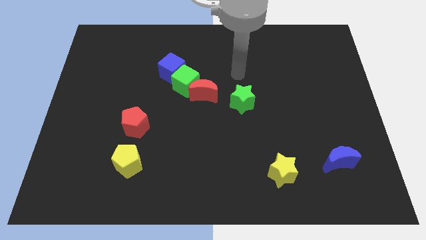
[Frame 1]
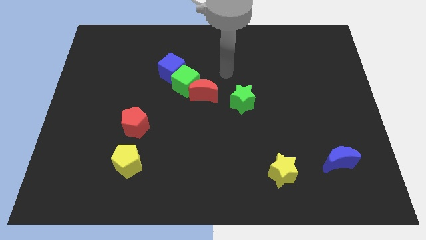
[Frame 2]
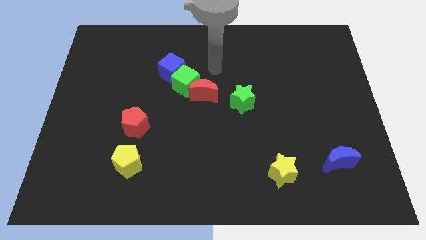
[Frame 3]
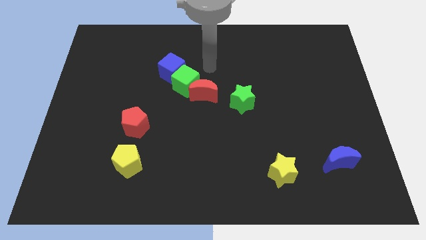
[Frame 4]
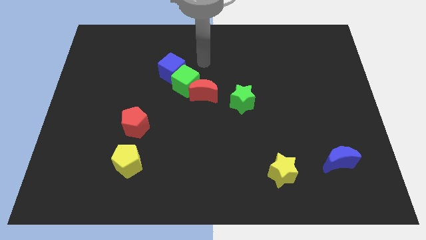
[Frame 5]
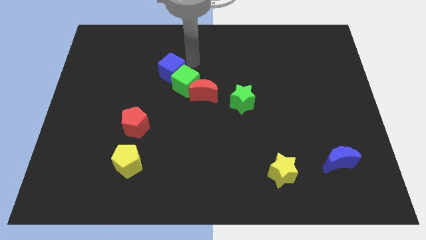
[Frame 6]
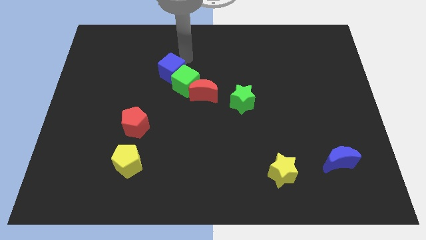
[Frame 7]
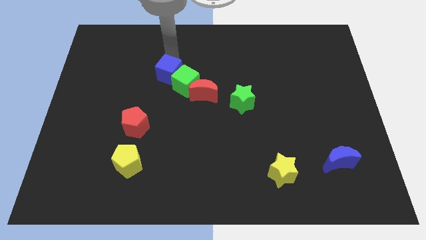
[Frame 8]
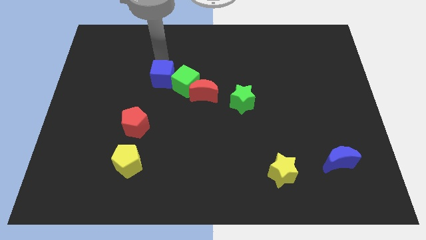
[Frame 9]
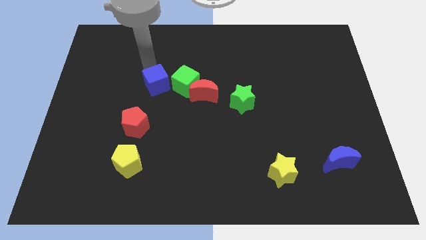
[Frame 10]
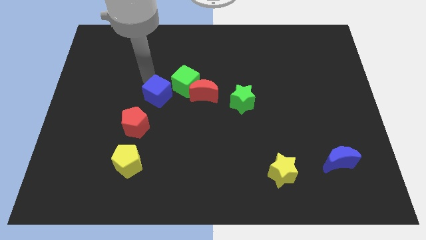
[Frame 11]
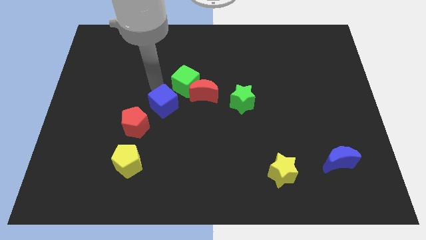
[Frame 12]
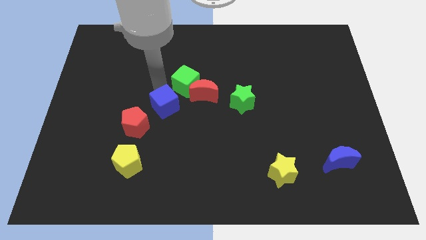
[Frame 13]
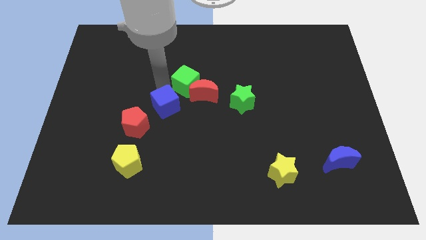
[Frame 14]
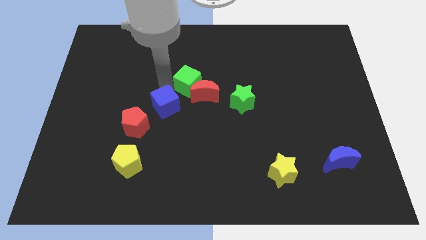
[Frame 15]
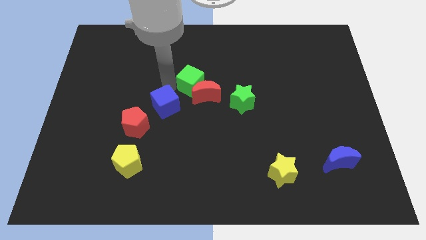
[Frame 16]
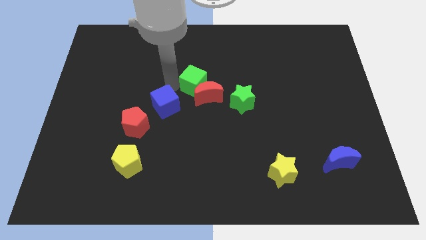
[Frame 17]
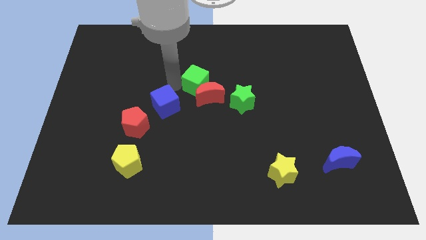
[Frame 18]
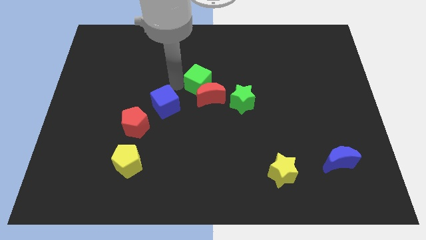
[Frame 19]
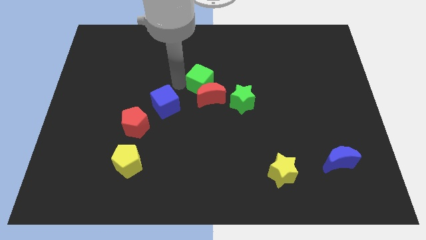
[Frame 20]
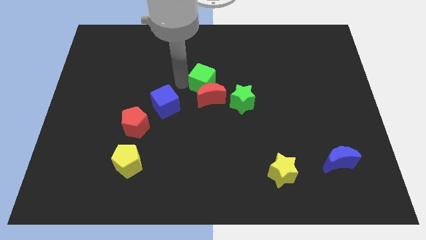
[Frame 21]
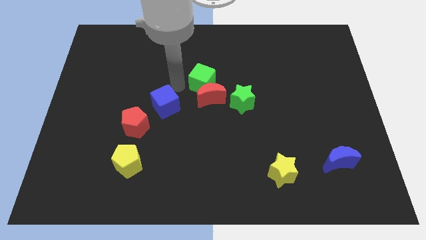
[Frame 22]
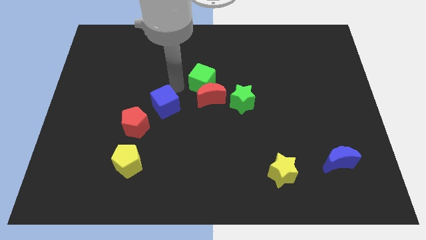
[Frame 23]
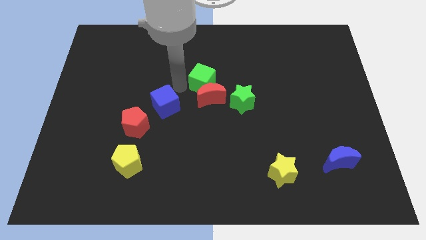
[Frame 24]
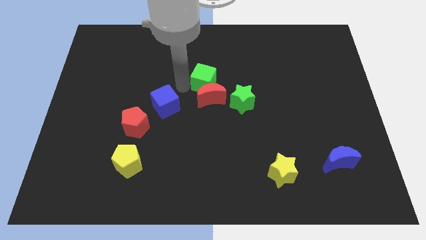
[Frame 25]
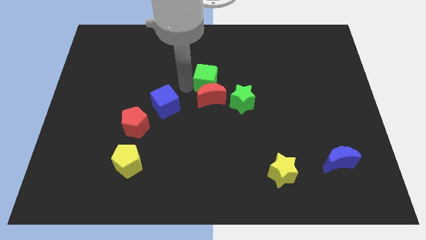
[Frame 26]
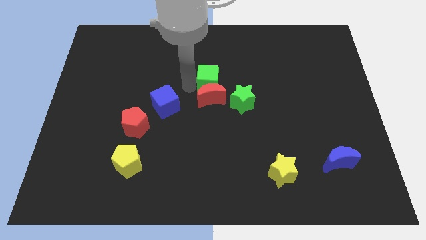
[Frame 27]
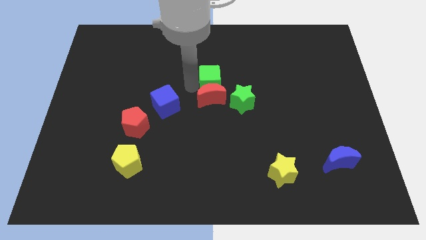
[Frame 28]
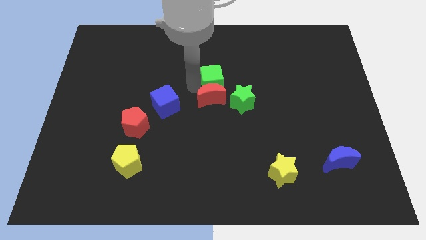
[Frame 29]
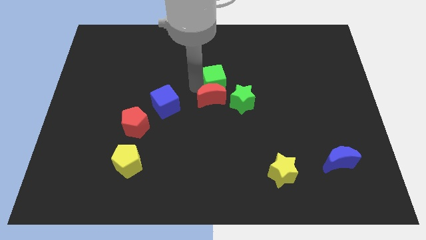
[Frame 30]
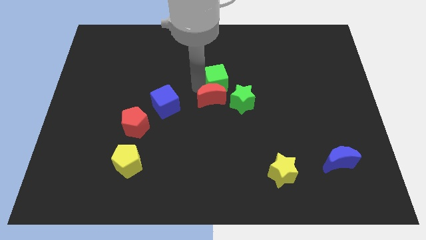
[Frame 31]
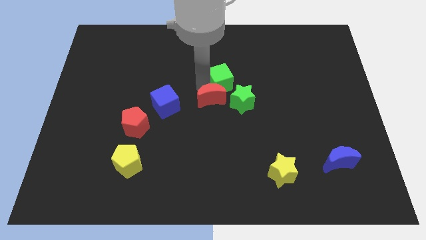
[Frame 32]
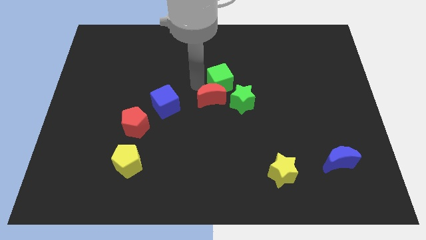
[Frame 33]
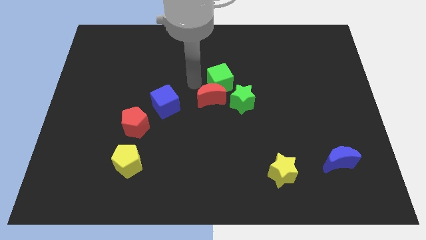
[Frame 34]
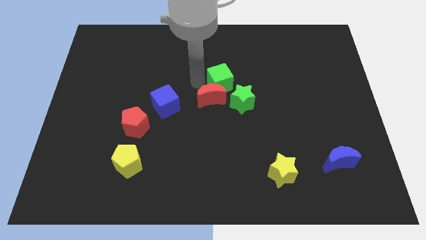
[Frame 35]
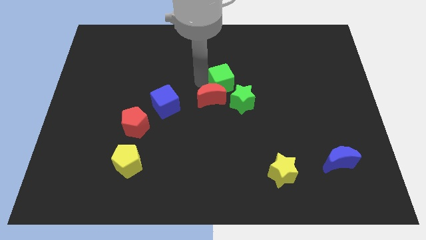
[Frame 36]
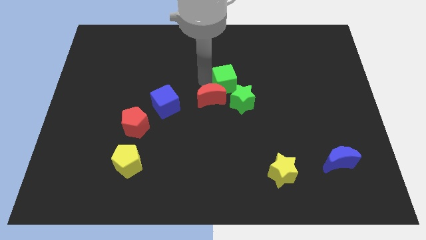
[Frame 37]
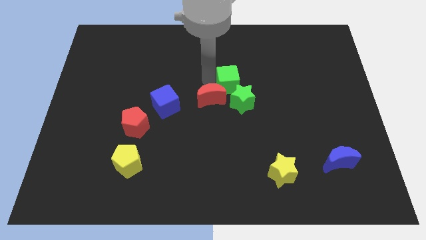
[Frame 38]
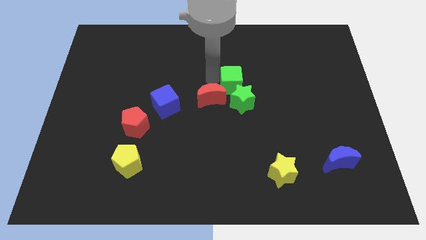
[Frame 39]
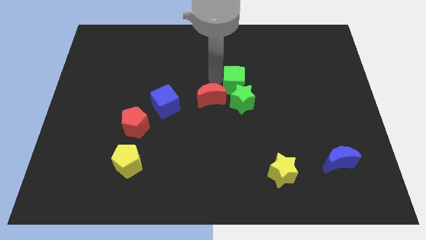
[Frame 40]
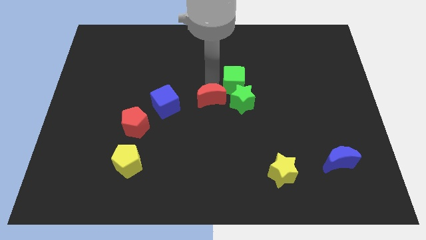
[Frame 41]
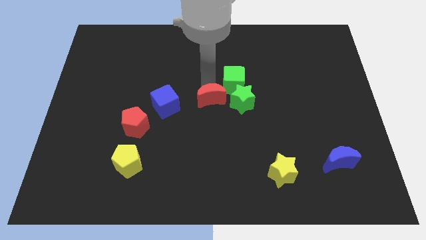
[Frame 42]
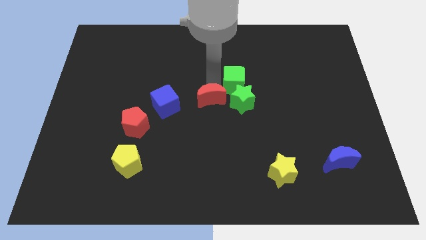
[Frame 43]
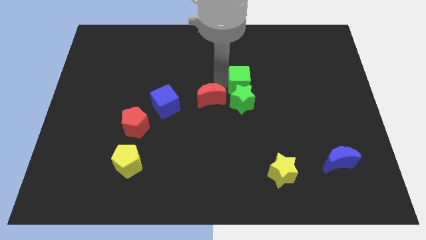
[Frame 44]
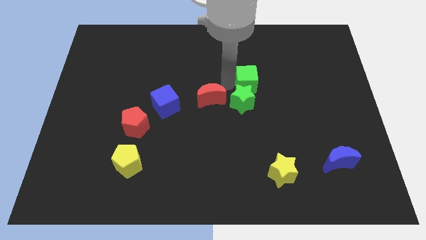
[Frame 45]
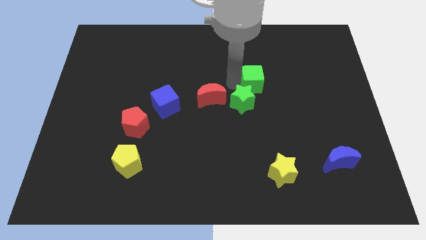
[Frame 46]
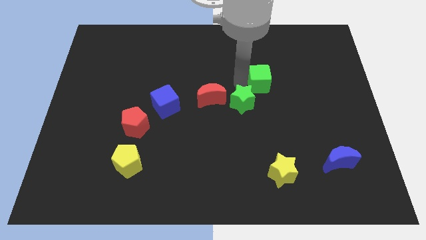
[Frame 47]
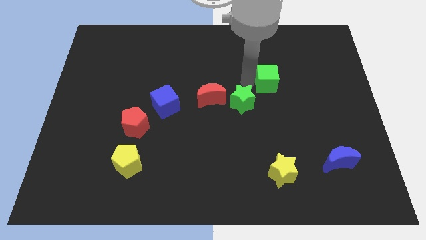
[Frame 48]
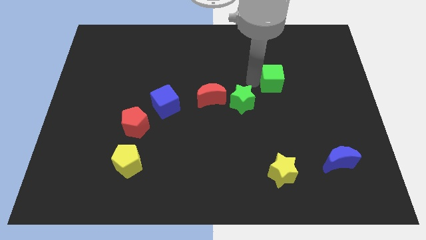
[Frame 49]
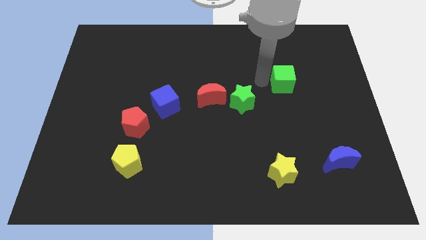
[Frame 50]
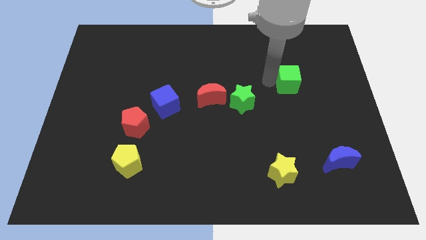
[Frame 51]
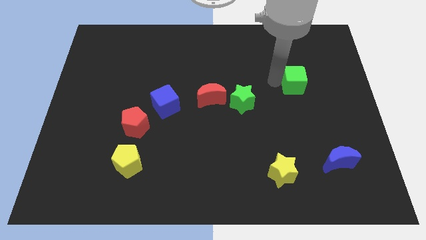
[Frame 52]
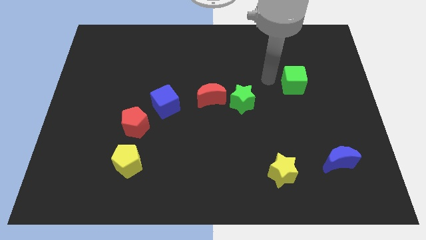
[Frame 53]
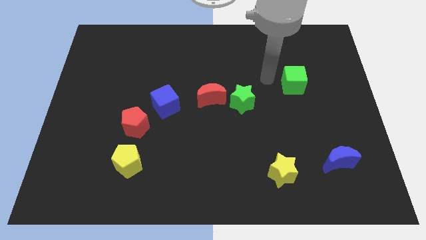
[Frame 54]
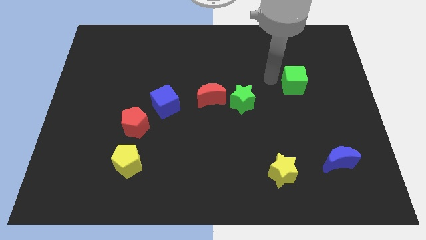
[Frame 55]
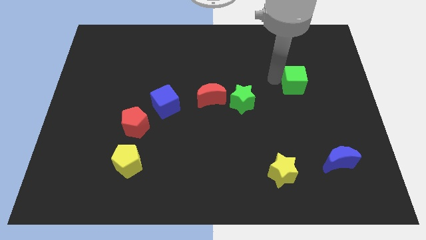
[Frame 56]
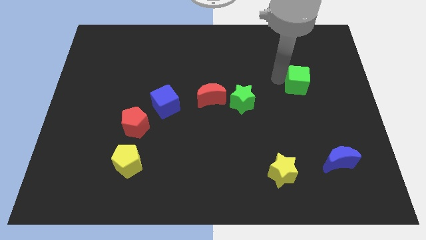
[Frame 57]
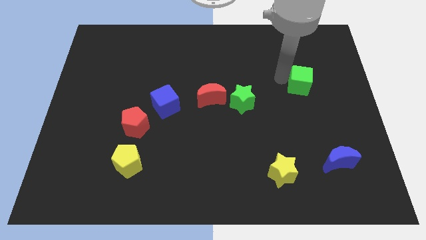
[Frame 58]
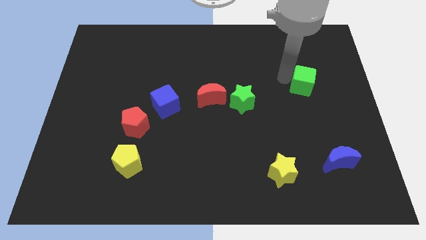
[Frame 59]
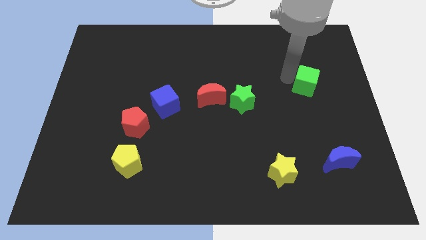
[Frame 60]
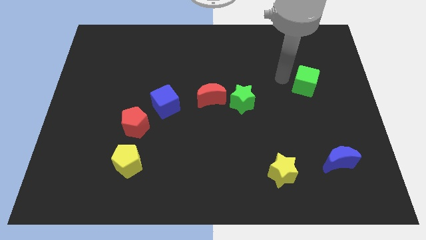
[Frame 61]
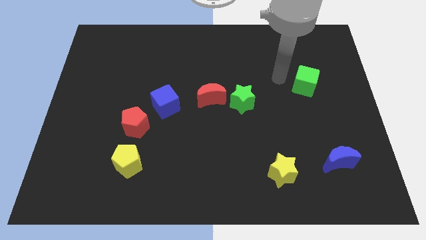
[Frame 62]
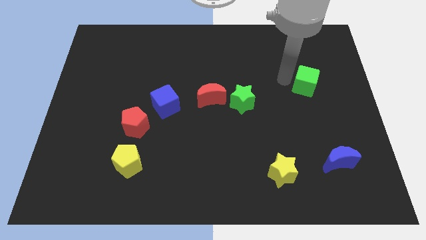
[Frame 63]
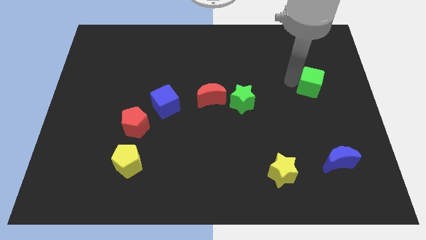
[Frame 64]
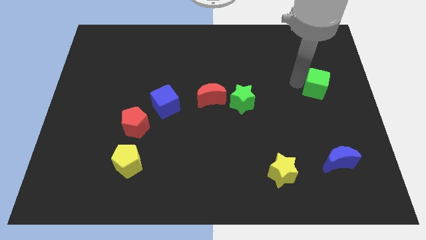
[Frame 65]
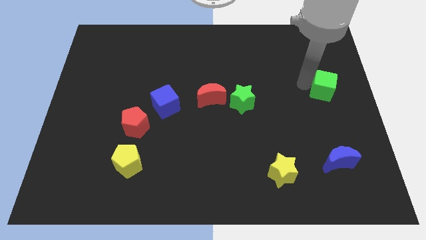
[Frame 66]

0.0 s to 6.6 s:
put the green cube to the right side

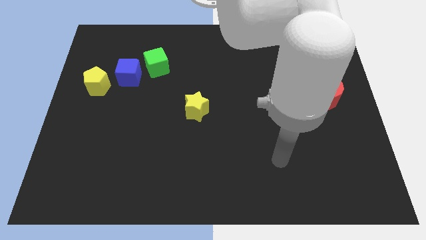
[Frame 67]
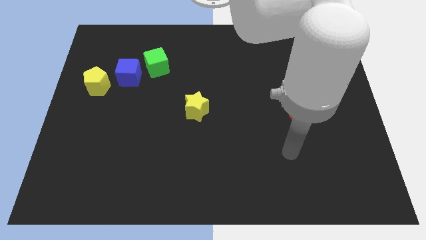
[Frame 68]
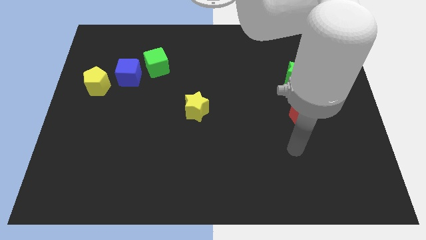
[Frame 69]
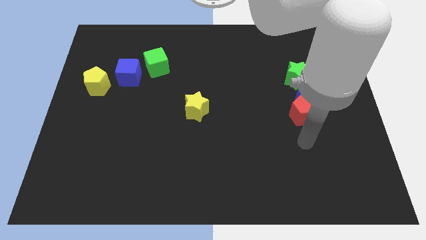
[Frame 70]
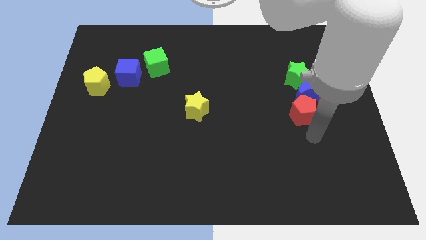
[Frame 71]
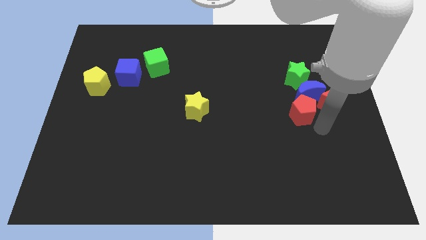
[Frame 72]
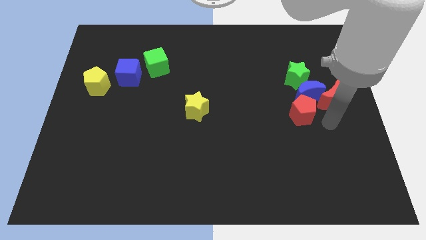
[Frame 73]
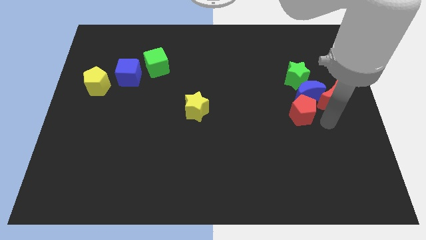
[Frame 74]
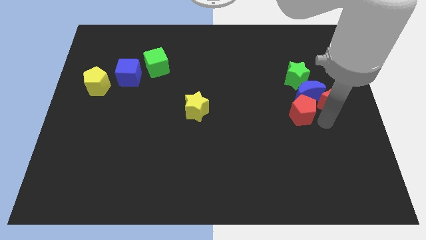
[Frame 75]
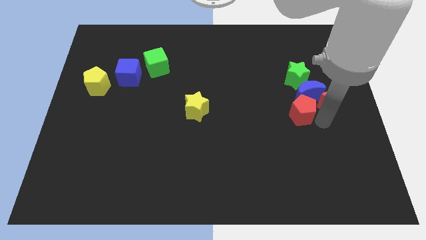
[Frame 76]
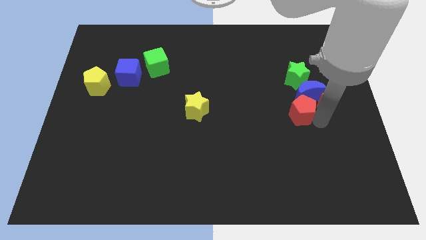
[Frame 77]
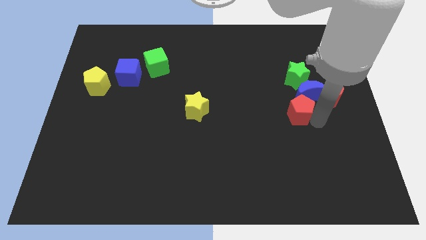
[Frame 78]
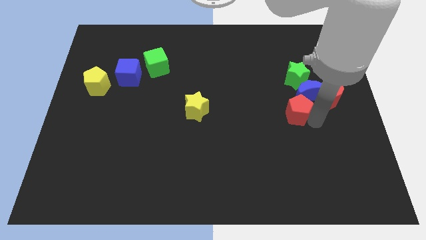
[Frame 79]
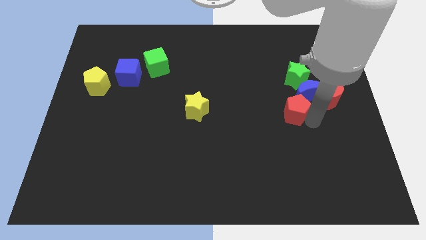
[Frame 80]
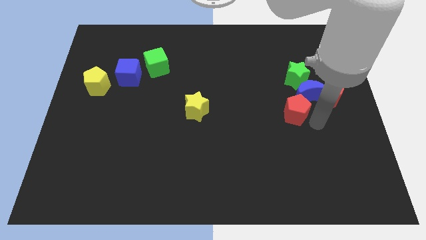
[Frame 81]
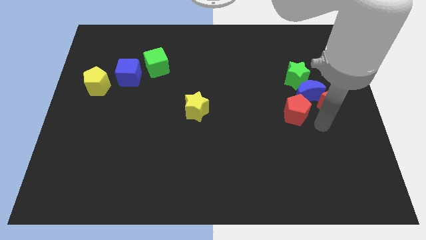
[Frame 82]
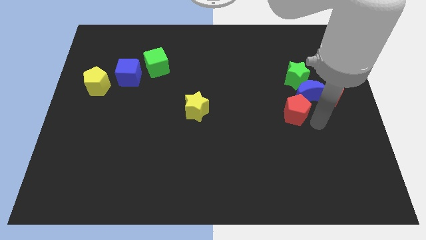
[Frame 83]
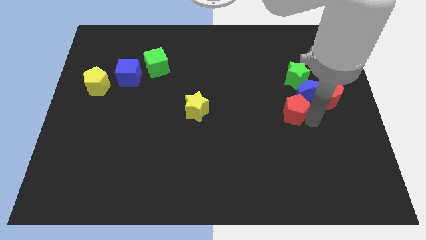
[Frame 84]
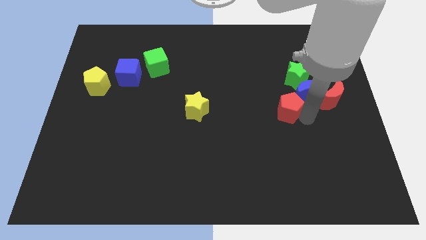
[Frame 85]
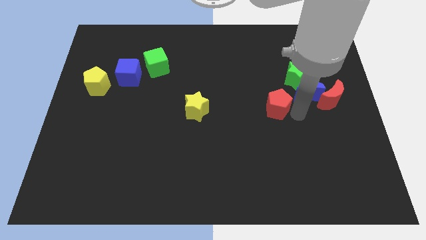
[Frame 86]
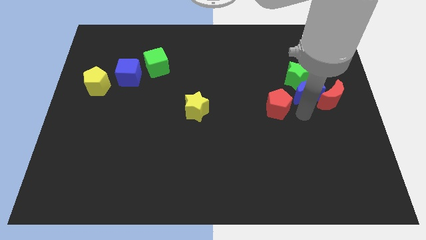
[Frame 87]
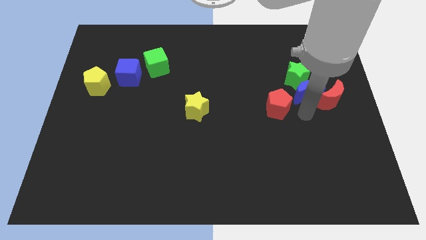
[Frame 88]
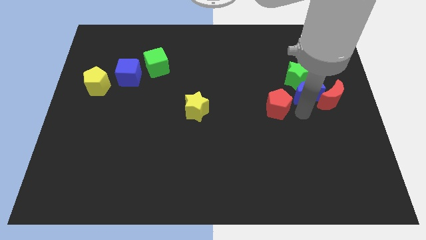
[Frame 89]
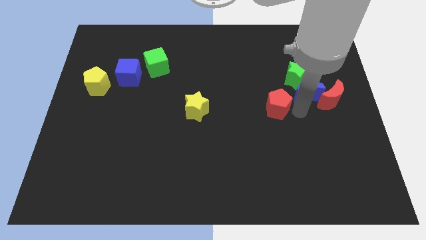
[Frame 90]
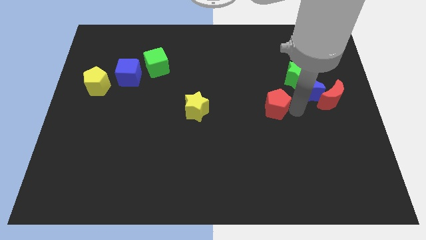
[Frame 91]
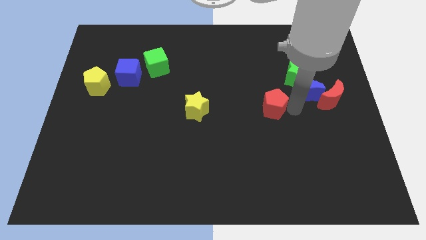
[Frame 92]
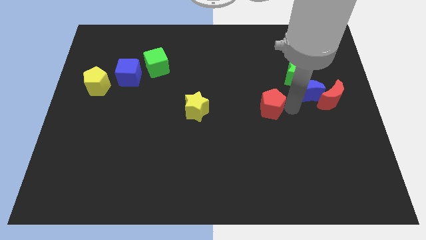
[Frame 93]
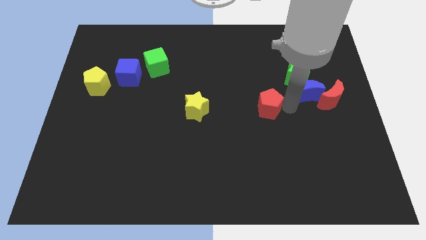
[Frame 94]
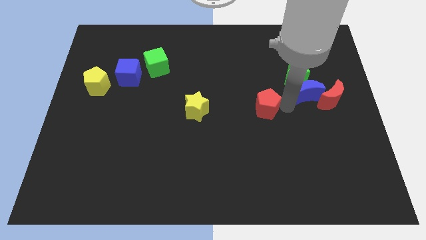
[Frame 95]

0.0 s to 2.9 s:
slide the red pentagon to the center of the board
